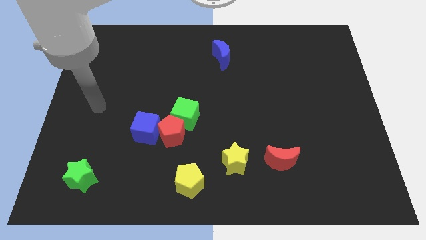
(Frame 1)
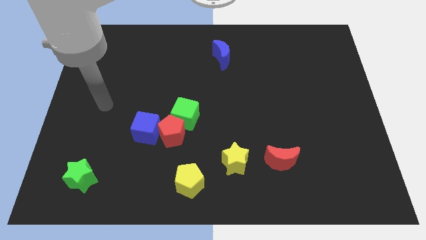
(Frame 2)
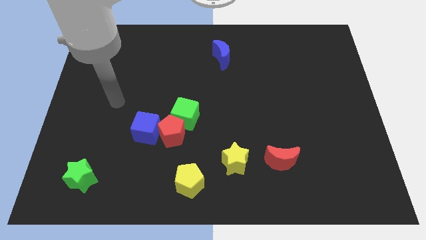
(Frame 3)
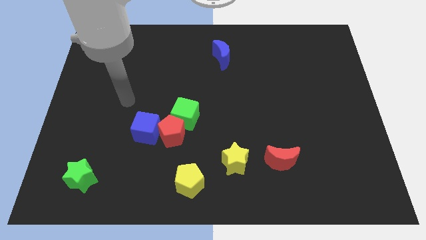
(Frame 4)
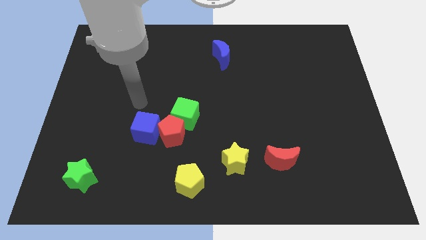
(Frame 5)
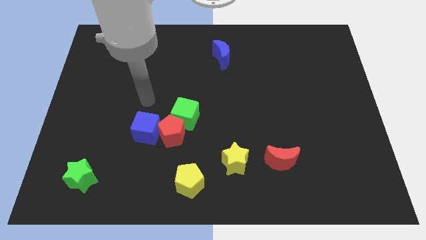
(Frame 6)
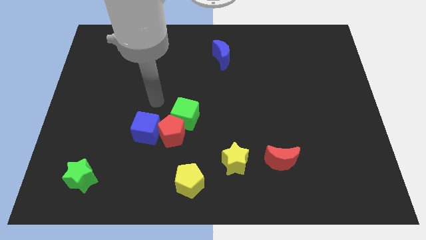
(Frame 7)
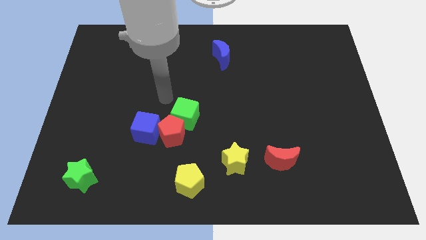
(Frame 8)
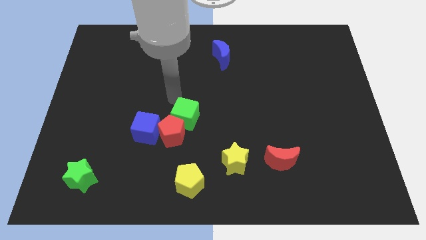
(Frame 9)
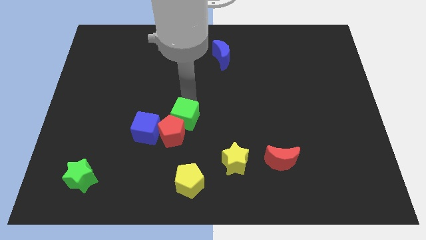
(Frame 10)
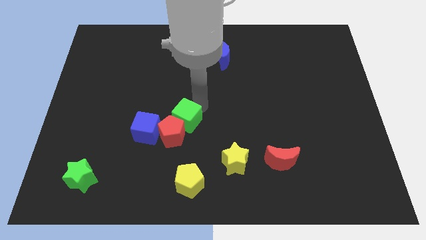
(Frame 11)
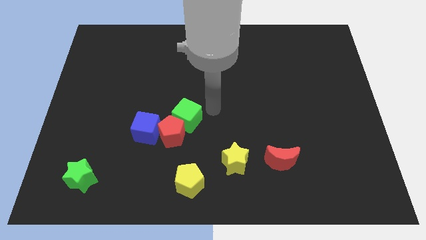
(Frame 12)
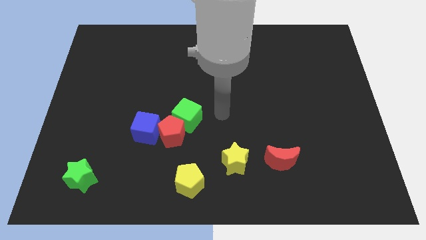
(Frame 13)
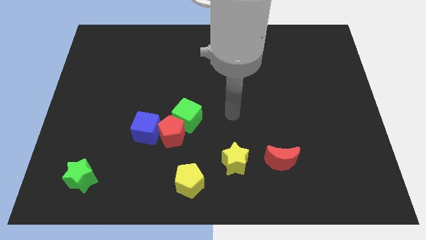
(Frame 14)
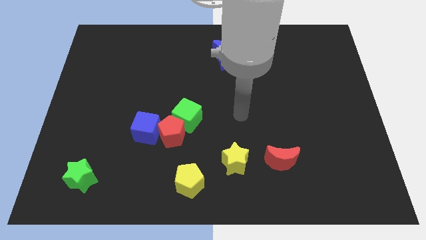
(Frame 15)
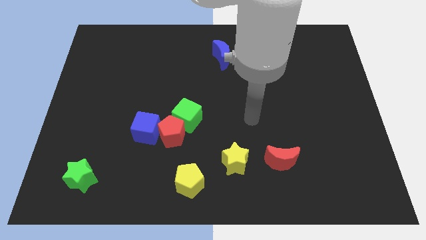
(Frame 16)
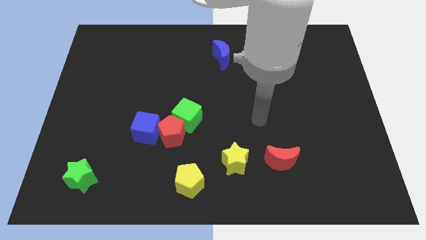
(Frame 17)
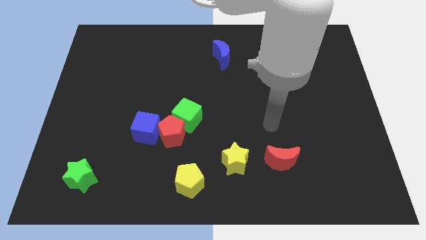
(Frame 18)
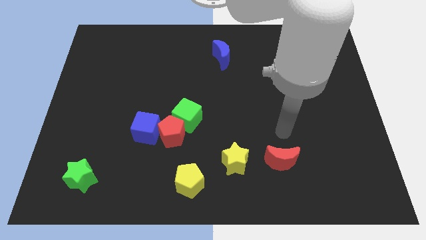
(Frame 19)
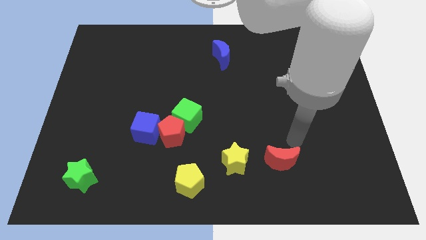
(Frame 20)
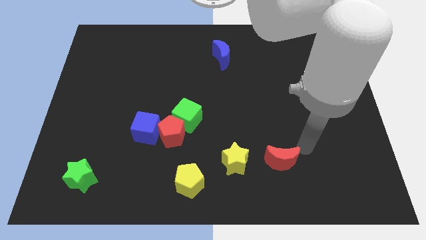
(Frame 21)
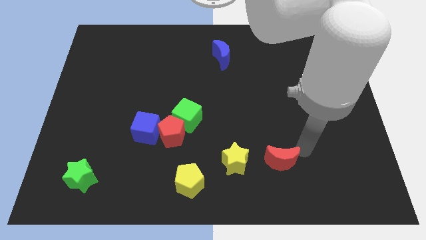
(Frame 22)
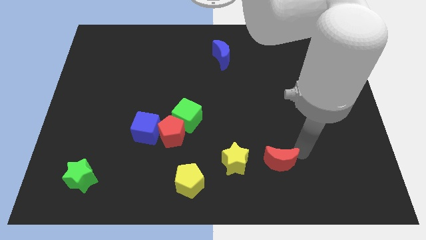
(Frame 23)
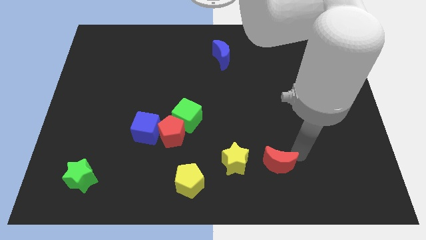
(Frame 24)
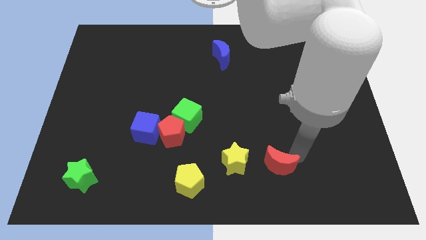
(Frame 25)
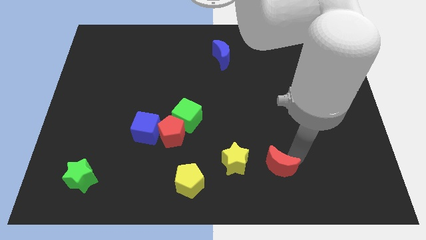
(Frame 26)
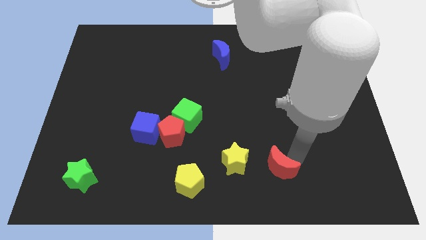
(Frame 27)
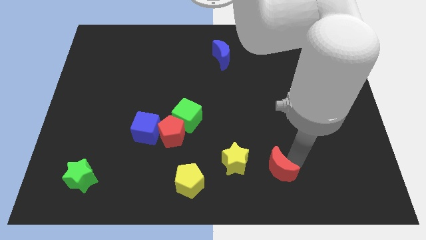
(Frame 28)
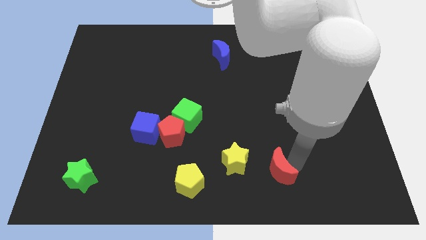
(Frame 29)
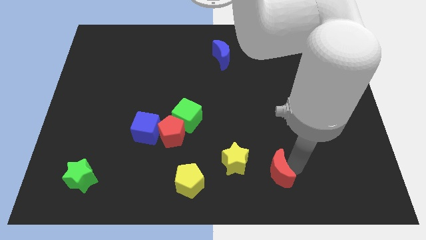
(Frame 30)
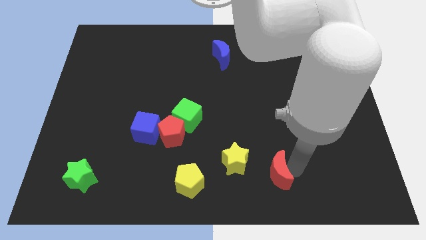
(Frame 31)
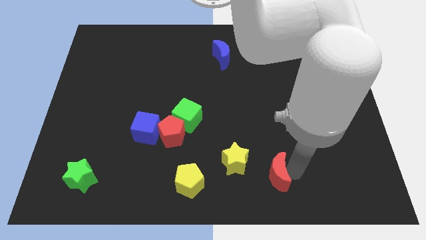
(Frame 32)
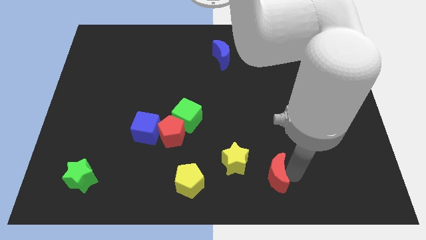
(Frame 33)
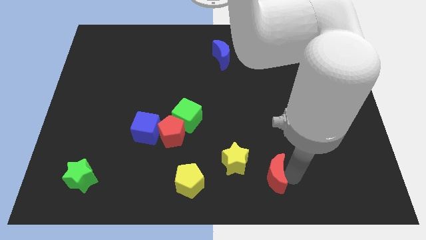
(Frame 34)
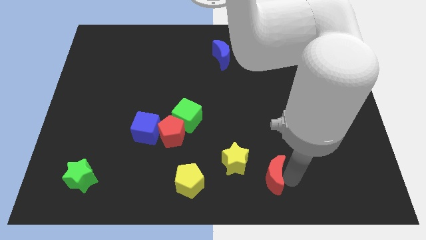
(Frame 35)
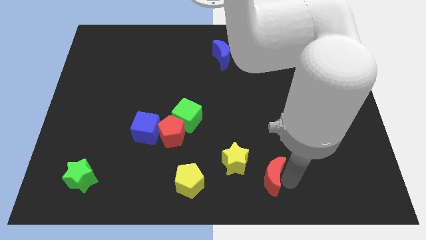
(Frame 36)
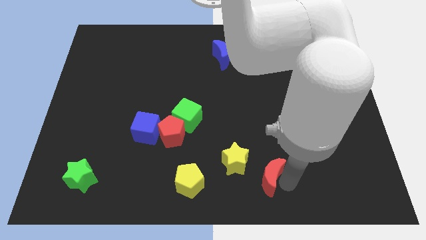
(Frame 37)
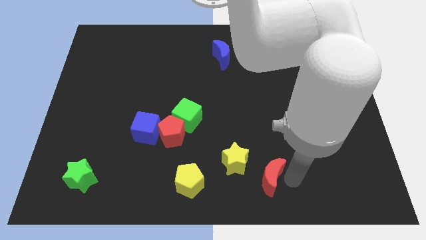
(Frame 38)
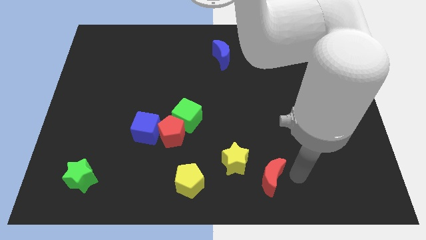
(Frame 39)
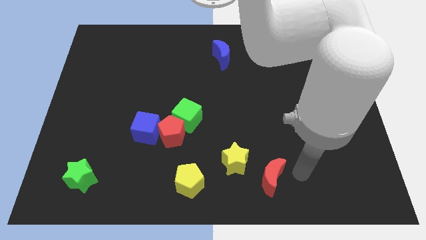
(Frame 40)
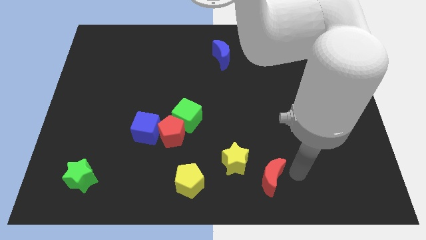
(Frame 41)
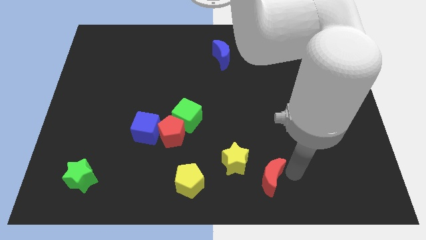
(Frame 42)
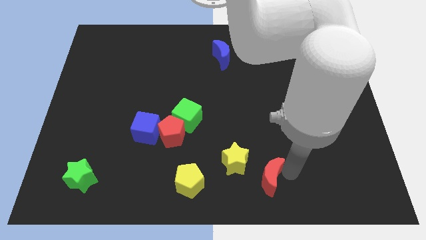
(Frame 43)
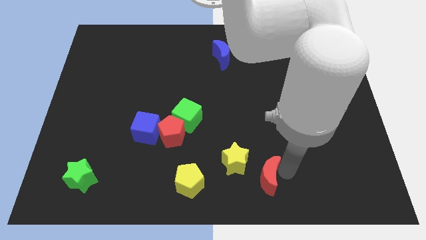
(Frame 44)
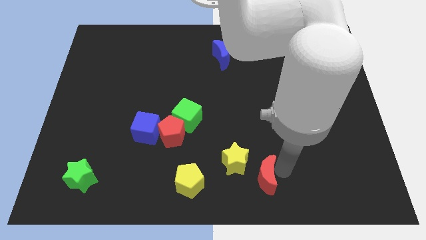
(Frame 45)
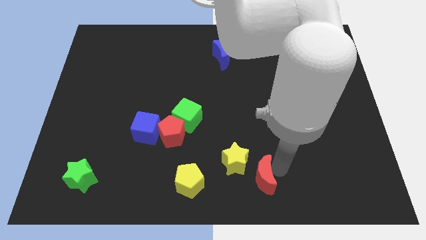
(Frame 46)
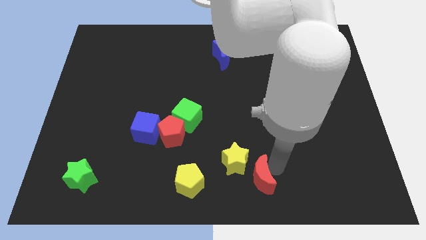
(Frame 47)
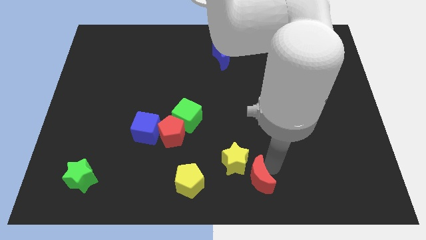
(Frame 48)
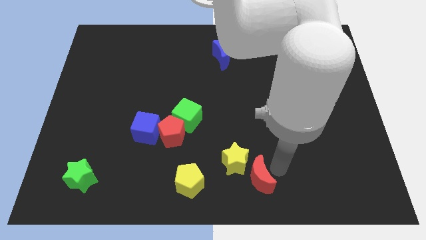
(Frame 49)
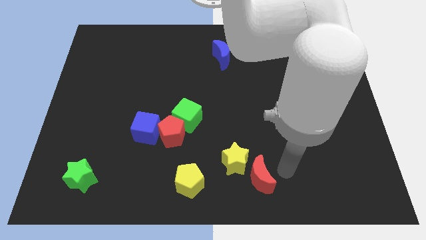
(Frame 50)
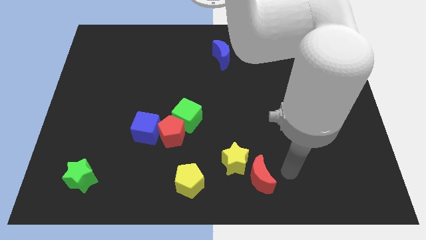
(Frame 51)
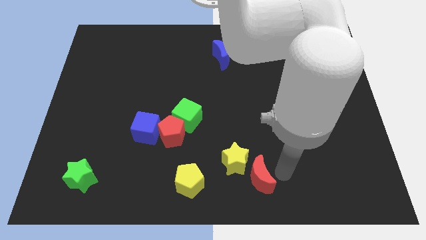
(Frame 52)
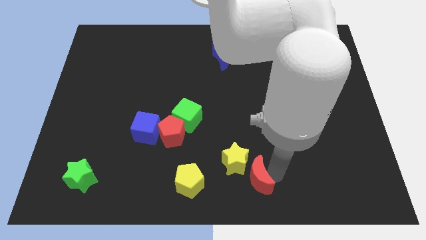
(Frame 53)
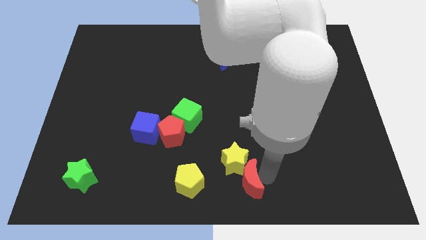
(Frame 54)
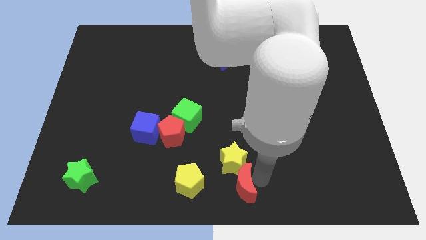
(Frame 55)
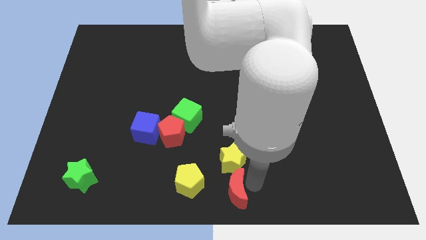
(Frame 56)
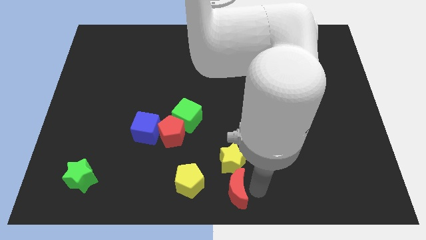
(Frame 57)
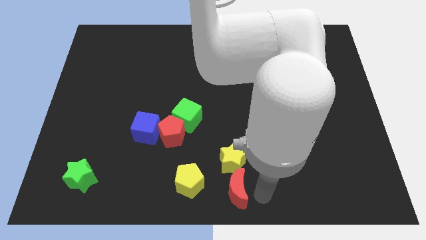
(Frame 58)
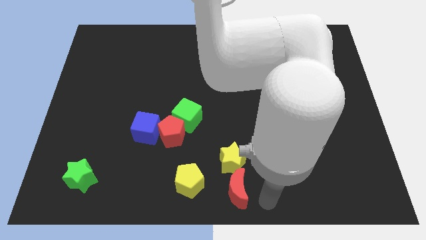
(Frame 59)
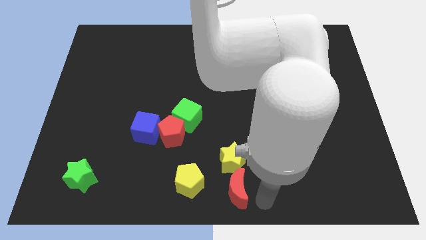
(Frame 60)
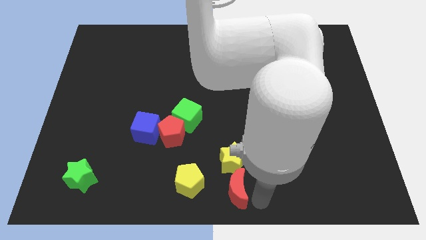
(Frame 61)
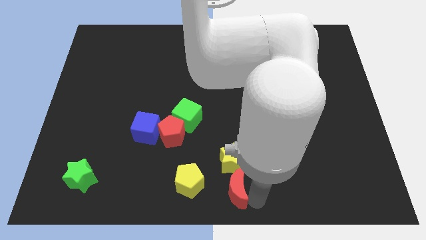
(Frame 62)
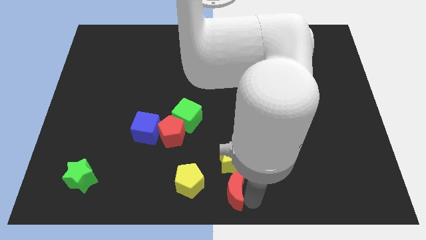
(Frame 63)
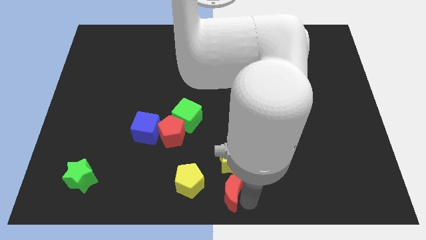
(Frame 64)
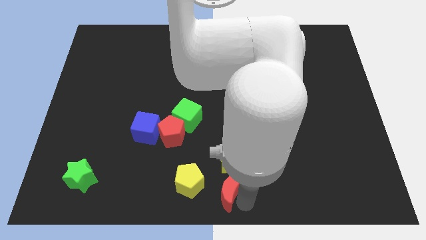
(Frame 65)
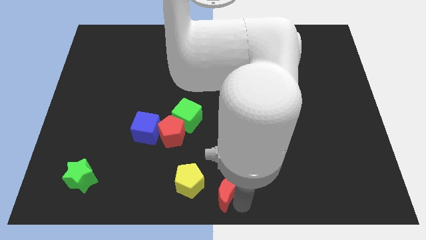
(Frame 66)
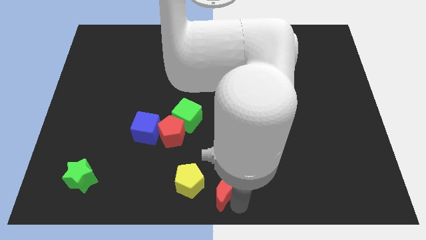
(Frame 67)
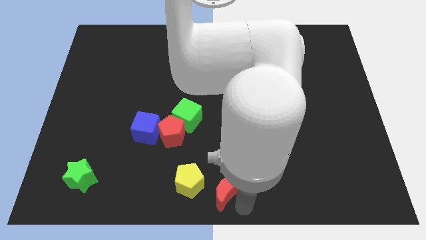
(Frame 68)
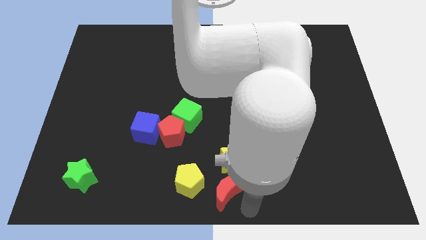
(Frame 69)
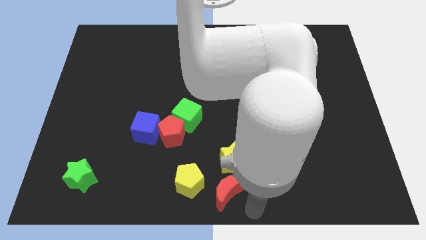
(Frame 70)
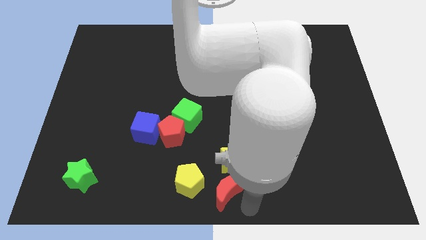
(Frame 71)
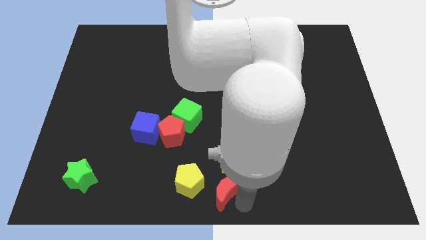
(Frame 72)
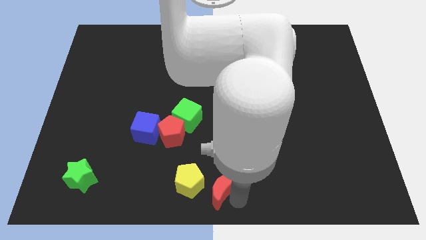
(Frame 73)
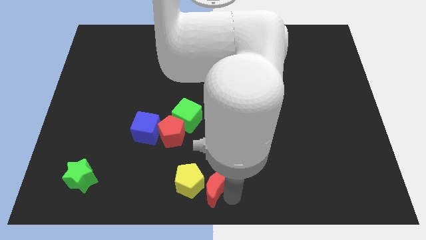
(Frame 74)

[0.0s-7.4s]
slide the red moon close to the yellow pentagon
